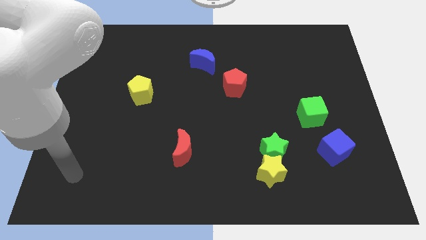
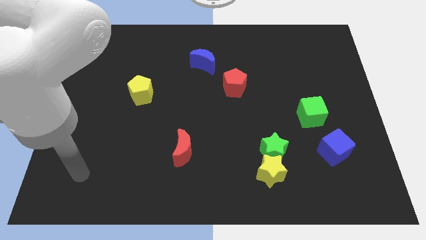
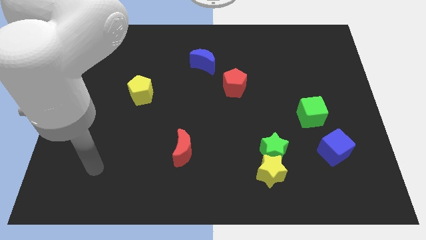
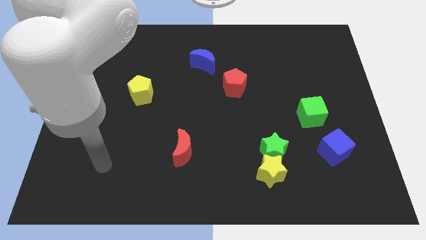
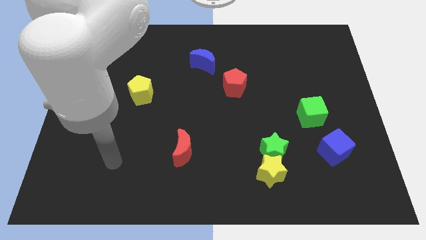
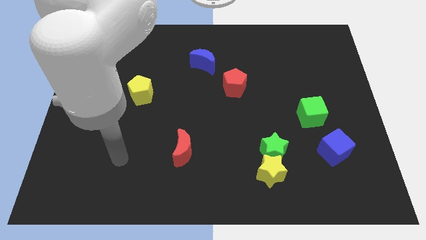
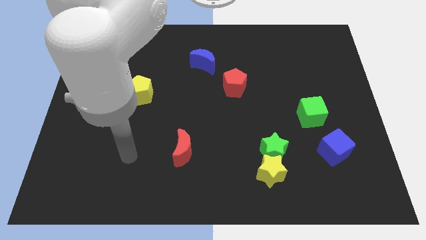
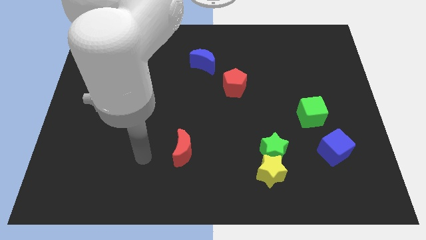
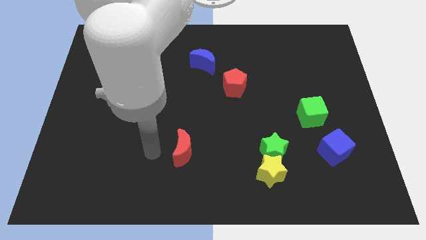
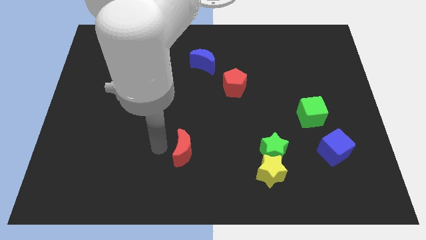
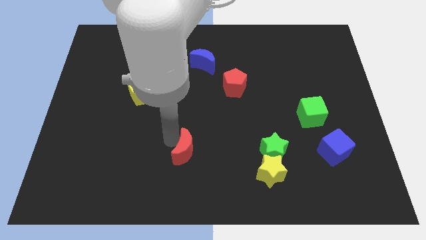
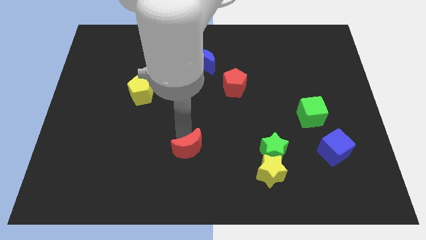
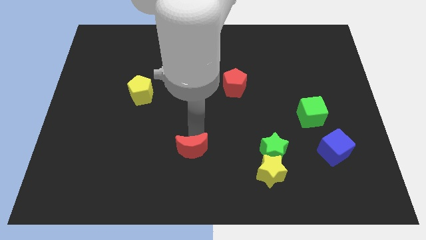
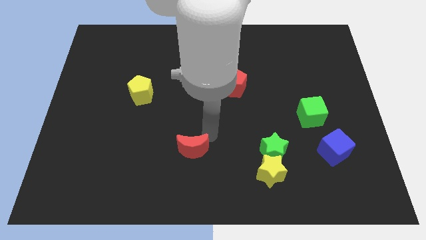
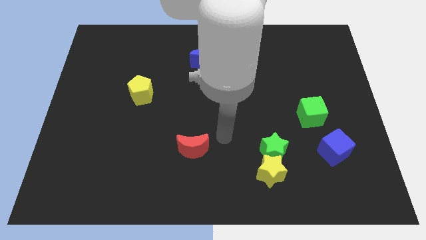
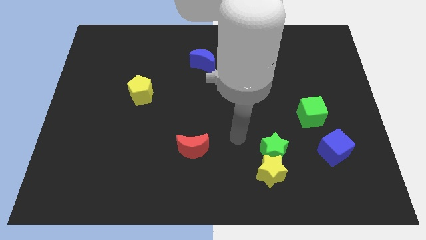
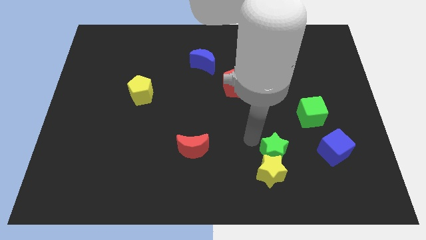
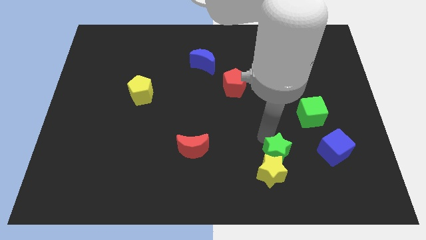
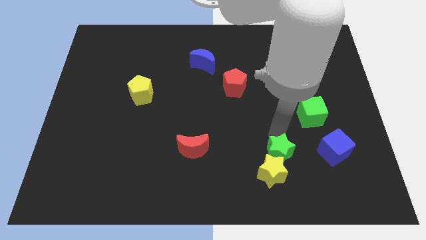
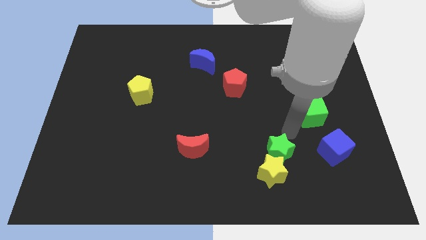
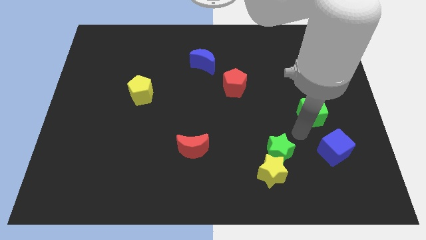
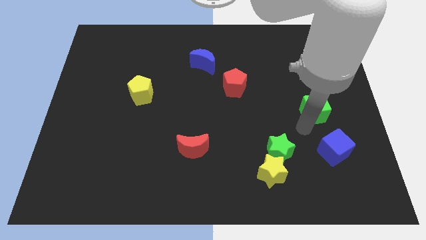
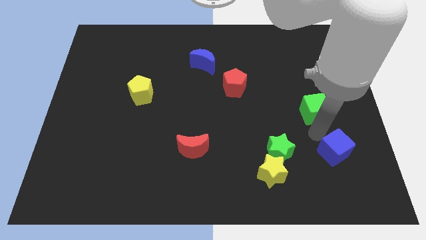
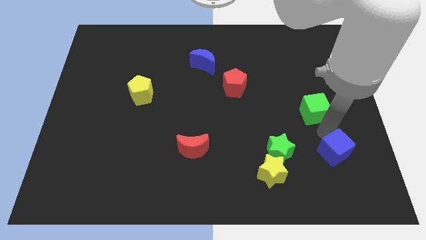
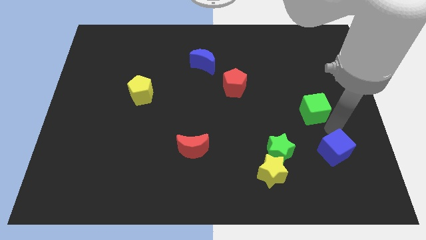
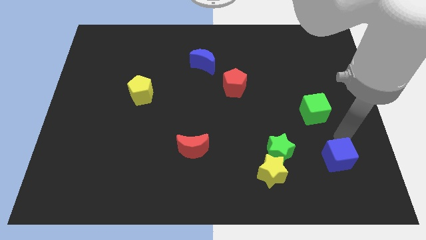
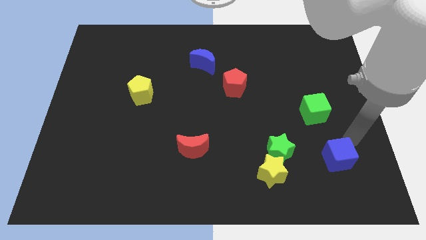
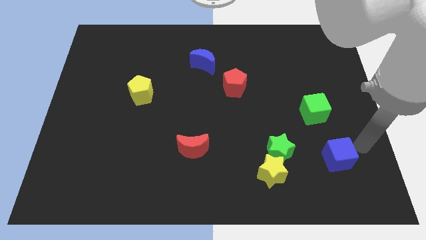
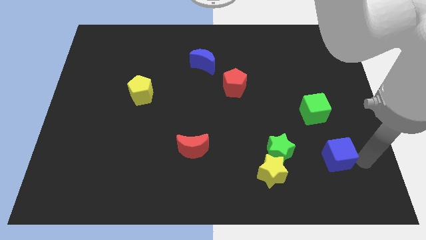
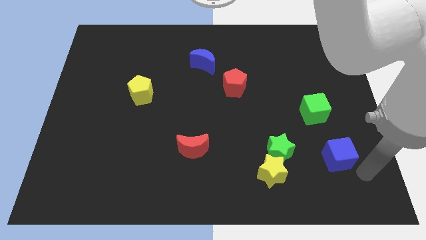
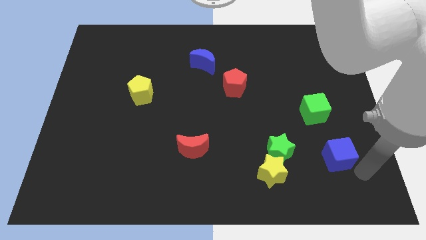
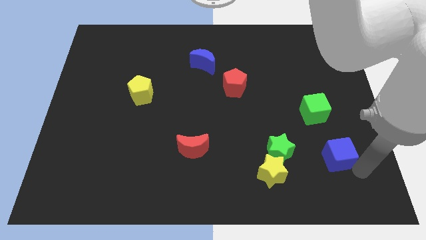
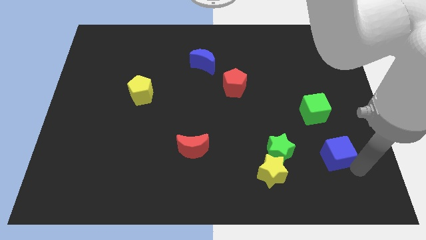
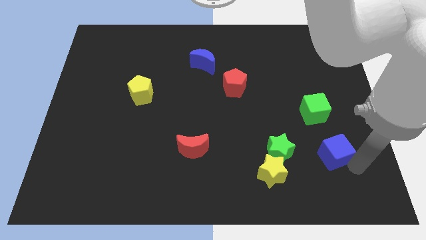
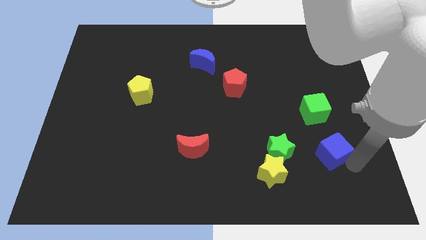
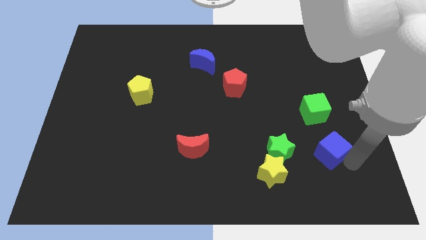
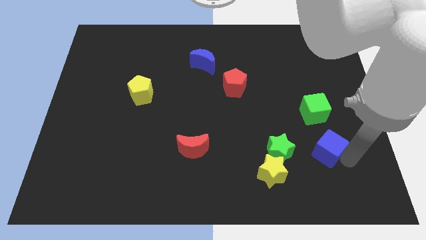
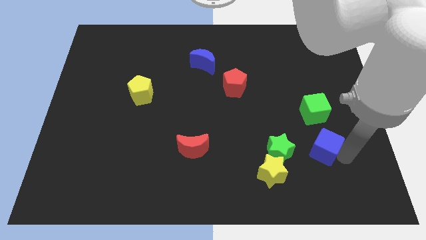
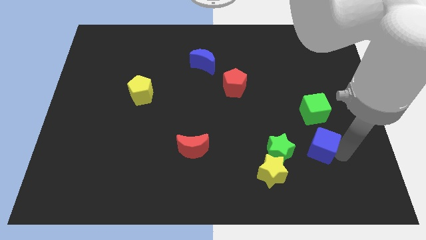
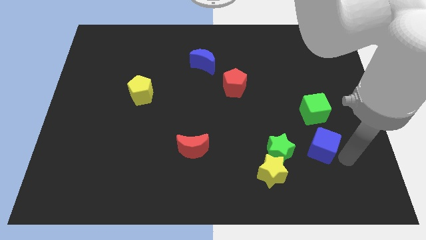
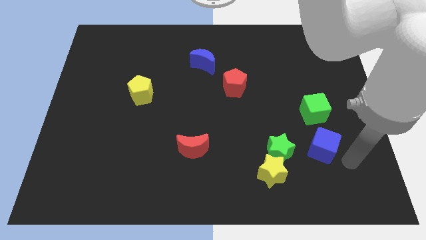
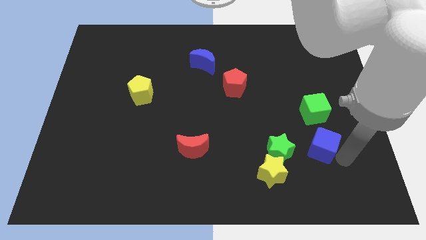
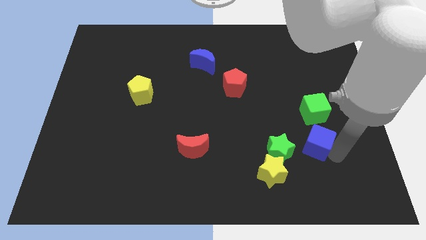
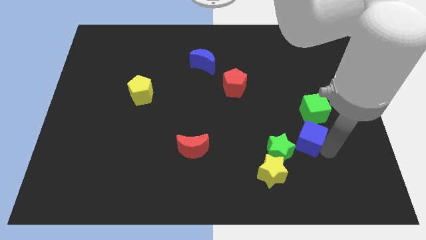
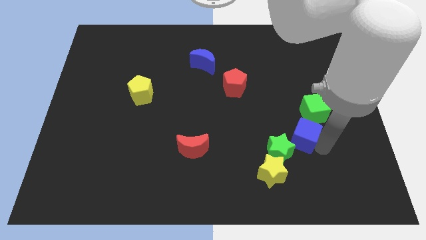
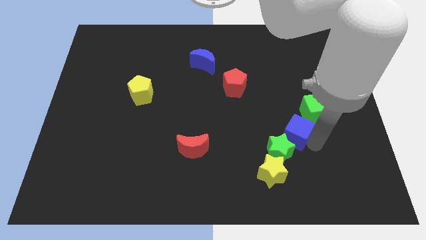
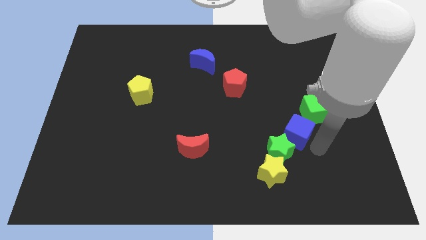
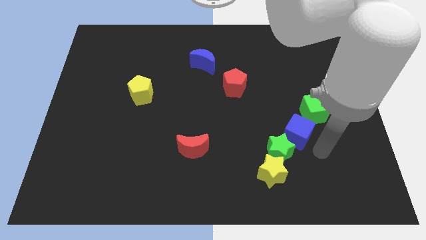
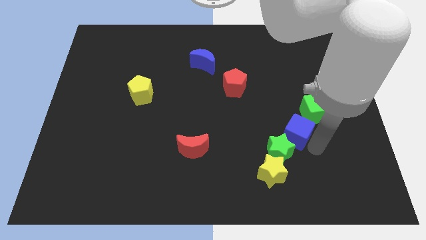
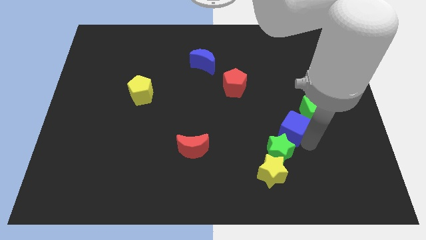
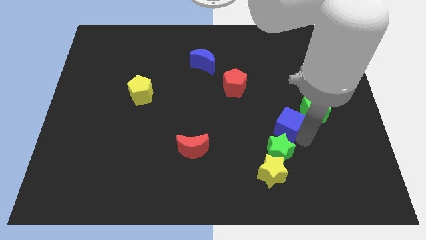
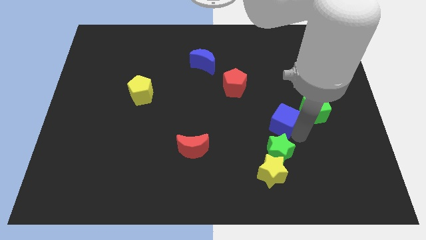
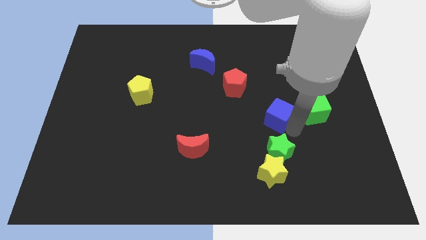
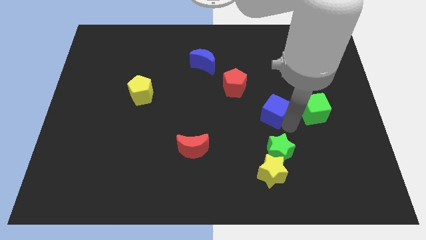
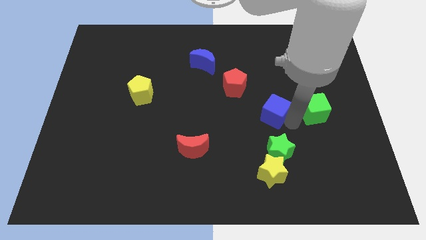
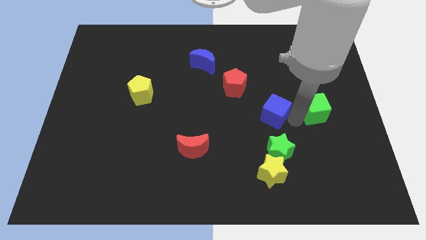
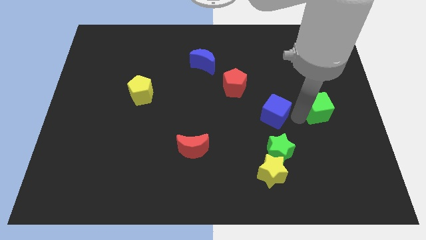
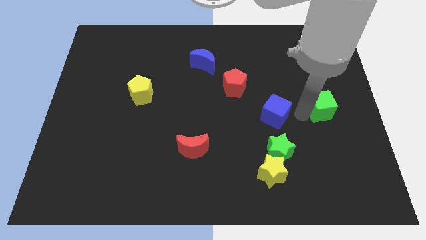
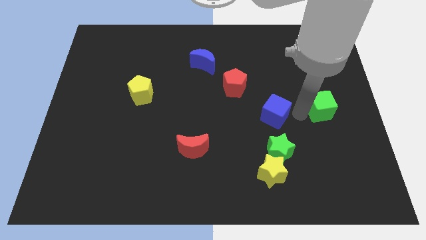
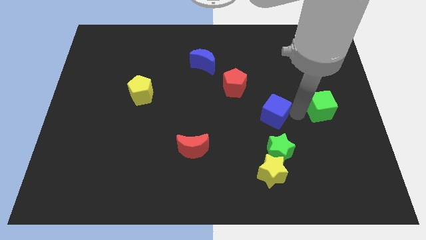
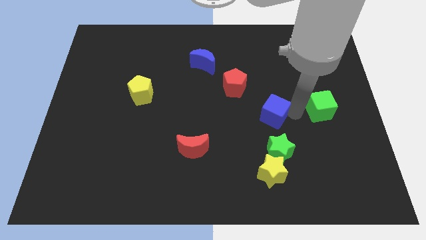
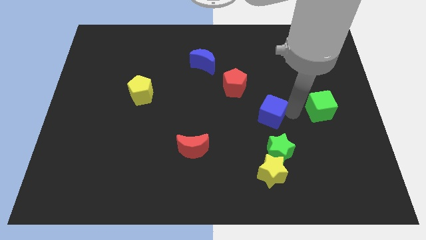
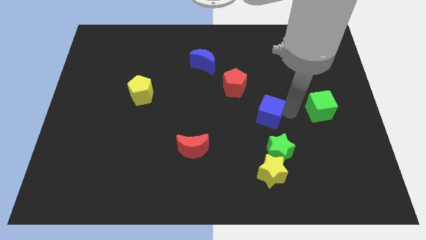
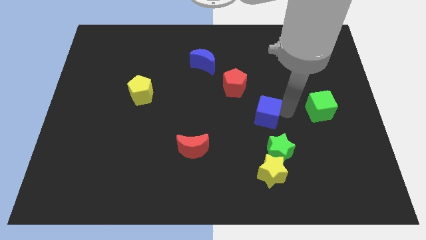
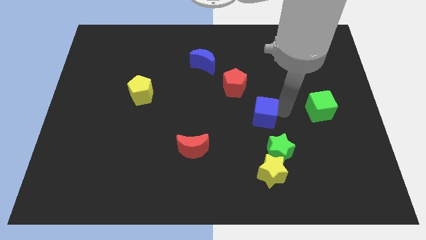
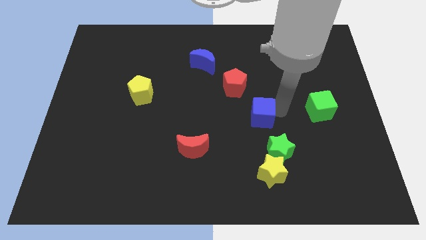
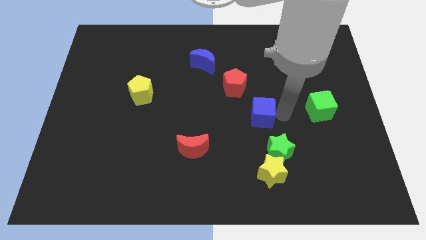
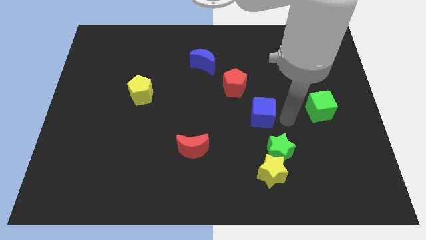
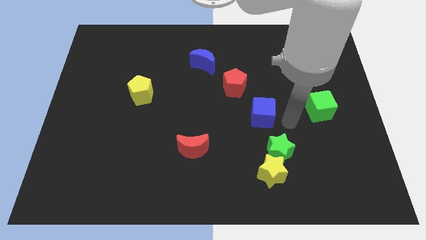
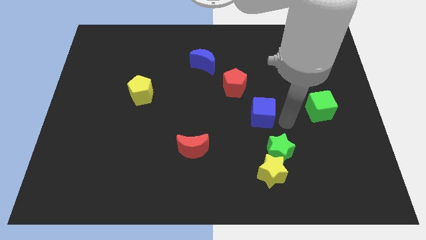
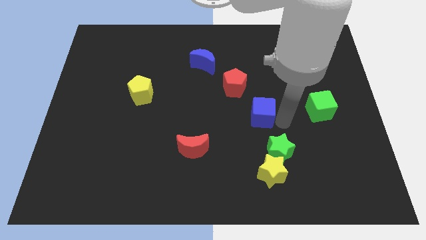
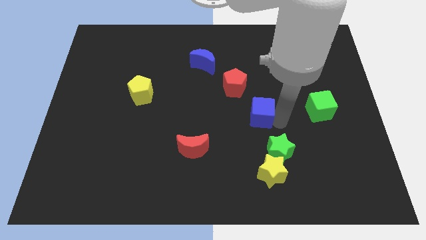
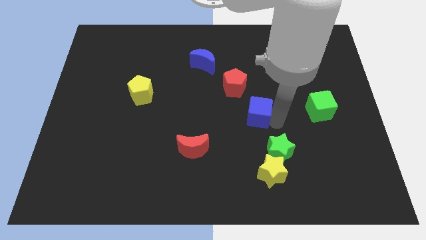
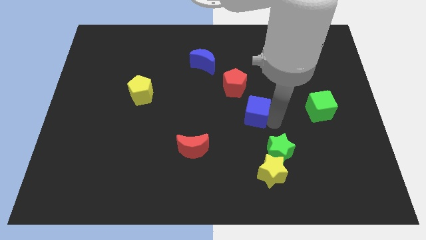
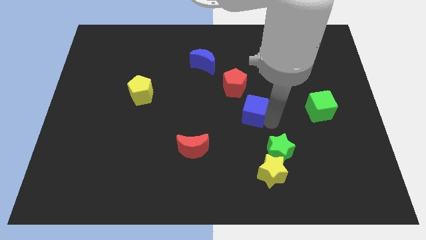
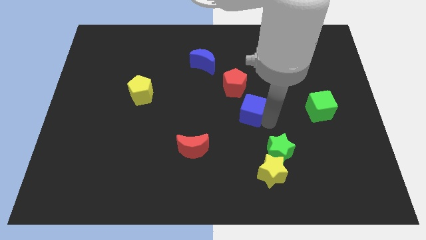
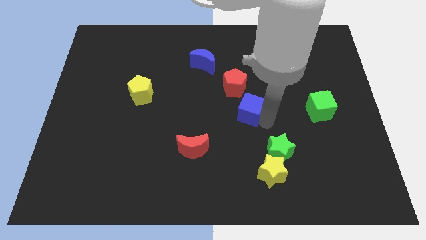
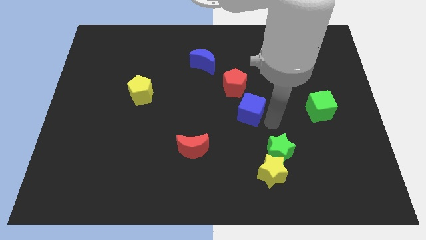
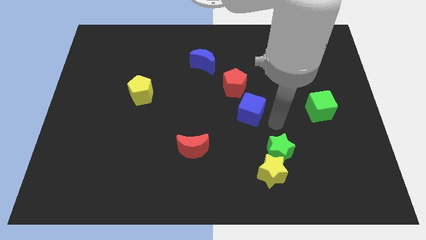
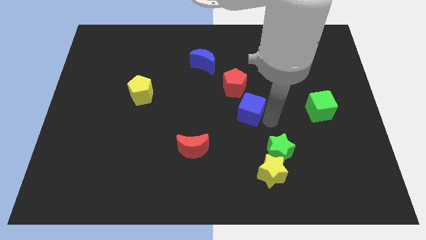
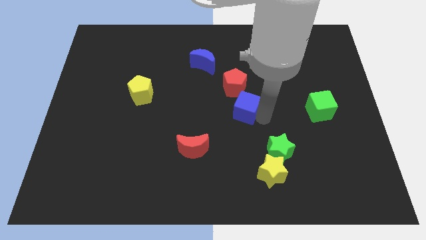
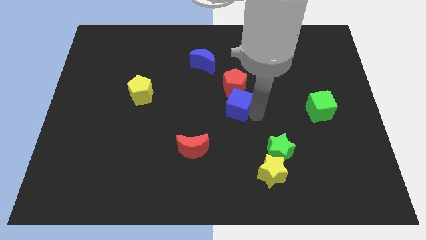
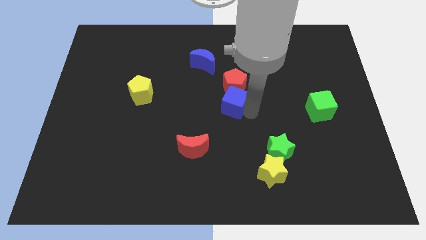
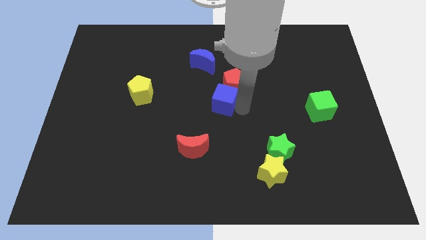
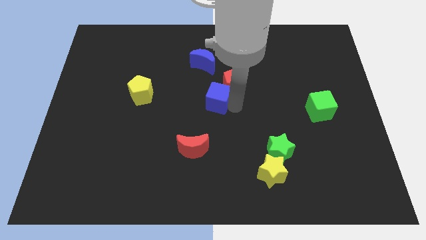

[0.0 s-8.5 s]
slide the blue cube below the blue moon
